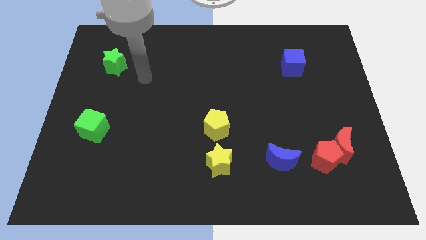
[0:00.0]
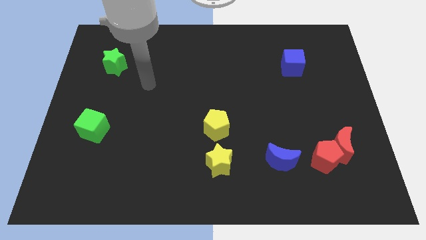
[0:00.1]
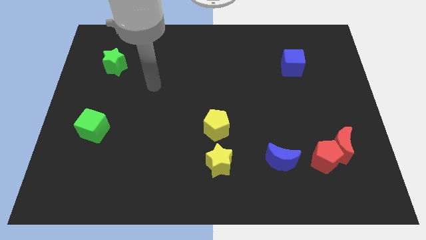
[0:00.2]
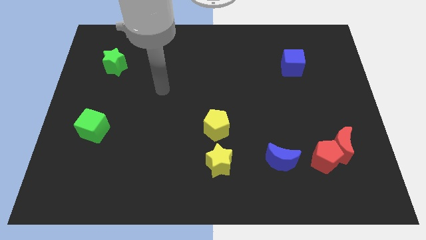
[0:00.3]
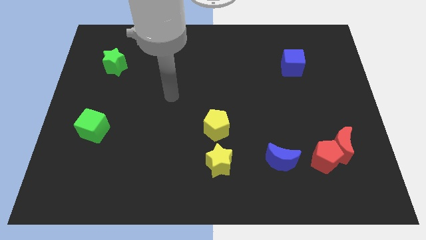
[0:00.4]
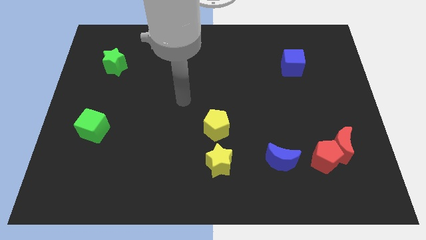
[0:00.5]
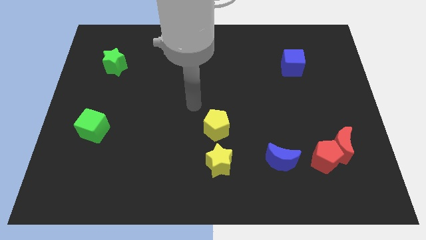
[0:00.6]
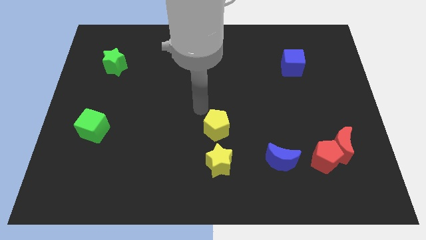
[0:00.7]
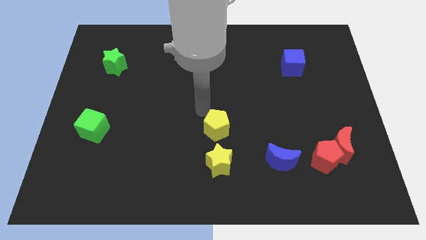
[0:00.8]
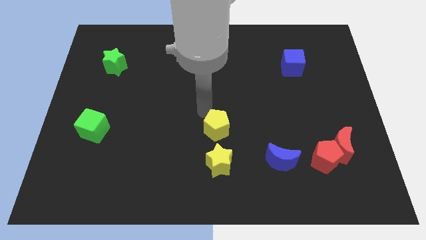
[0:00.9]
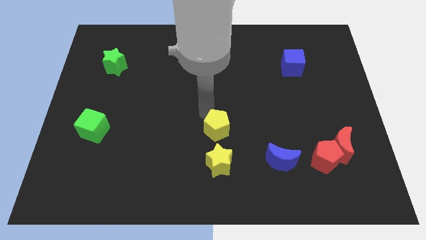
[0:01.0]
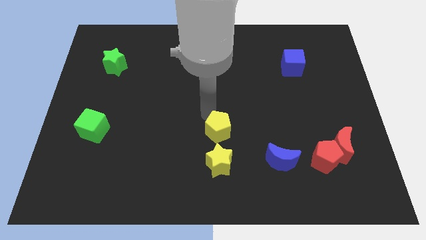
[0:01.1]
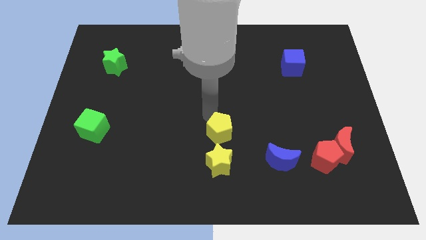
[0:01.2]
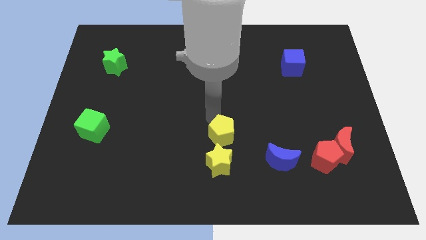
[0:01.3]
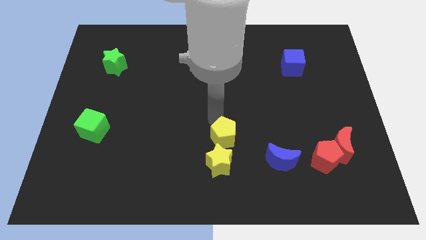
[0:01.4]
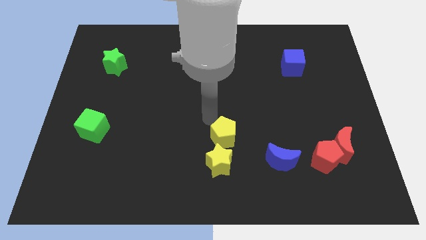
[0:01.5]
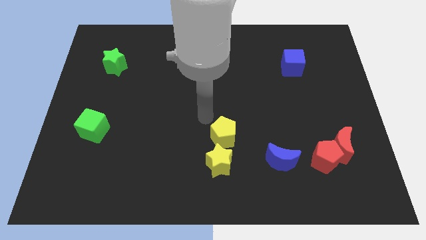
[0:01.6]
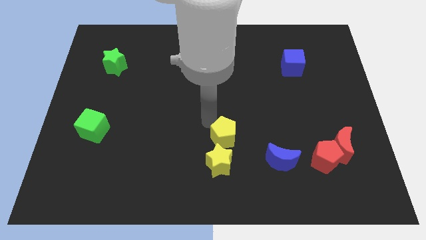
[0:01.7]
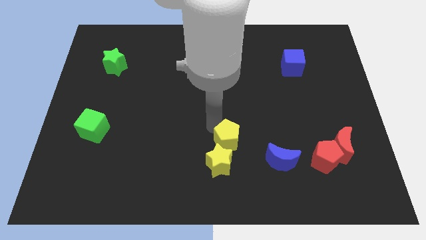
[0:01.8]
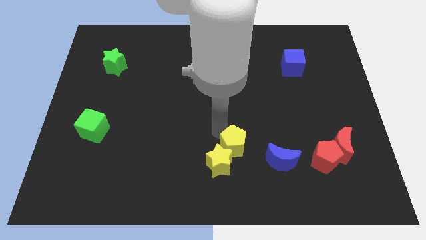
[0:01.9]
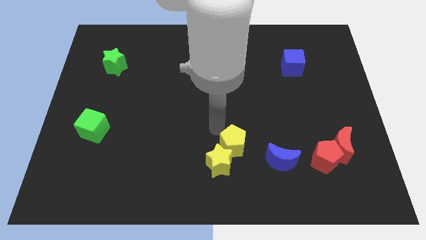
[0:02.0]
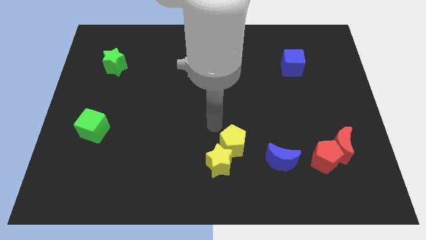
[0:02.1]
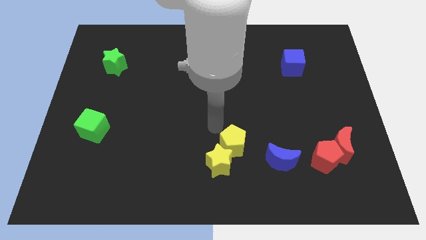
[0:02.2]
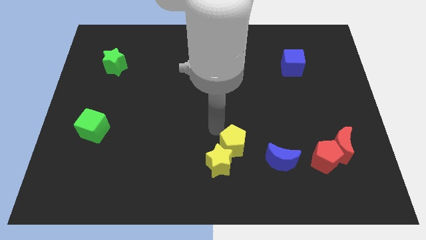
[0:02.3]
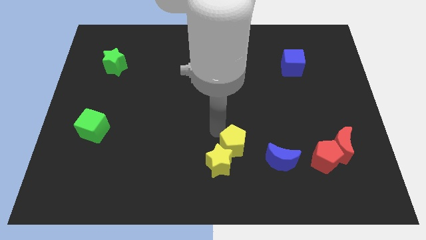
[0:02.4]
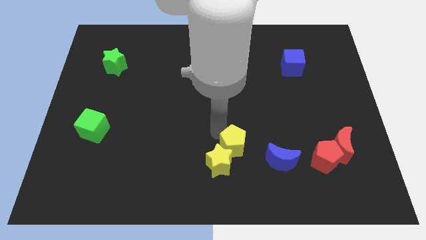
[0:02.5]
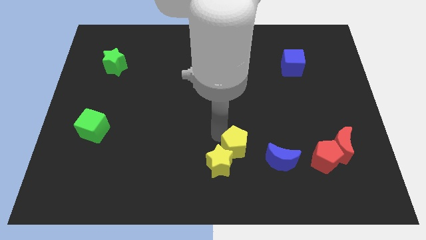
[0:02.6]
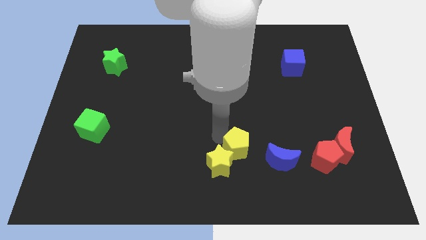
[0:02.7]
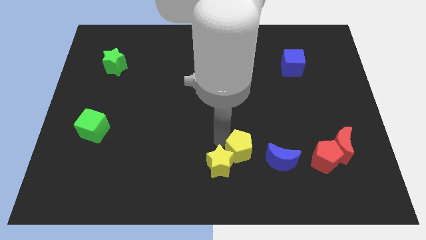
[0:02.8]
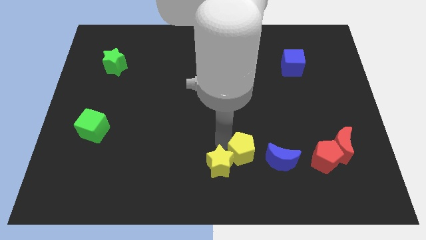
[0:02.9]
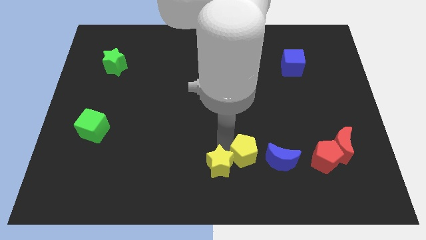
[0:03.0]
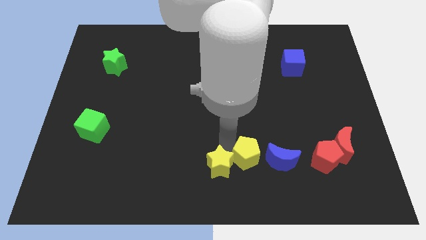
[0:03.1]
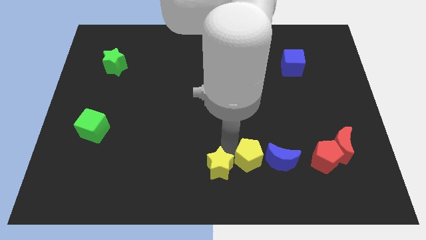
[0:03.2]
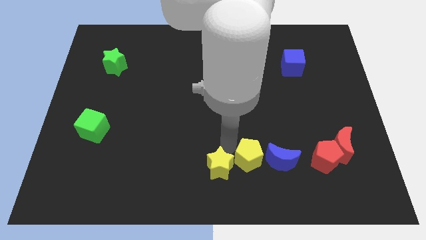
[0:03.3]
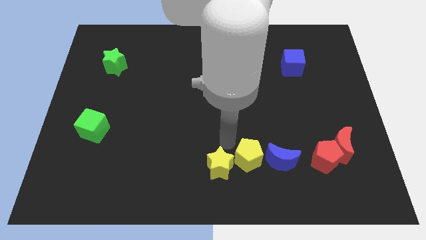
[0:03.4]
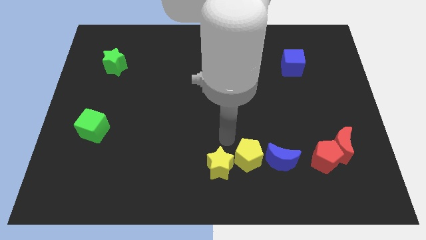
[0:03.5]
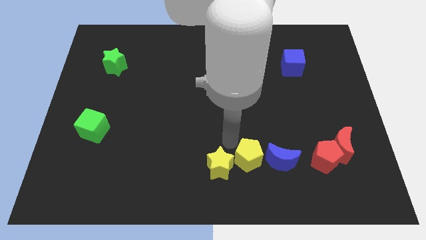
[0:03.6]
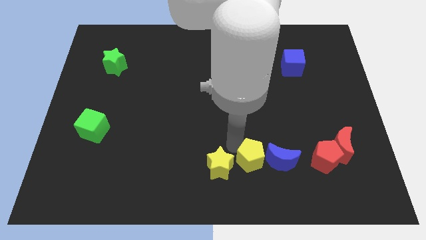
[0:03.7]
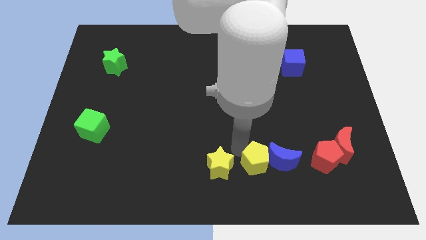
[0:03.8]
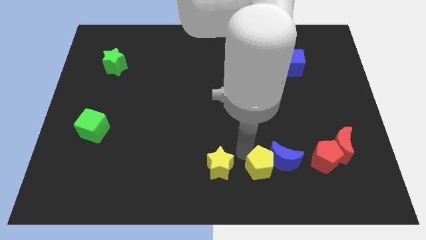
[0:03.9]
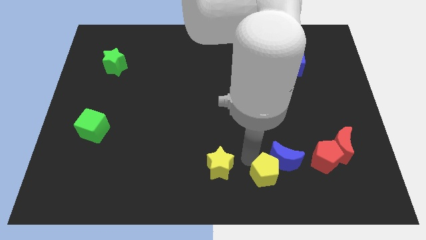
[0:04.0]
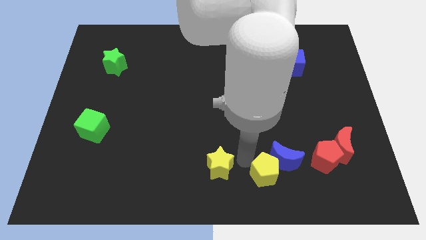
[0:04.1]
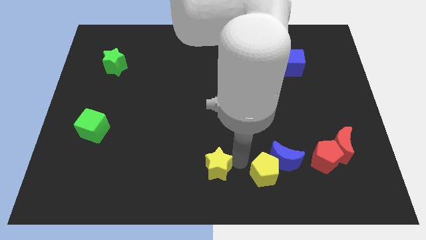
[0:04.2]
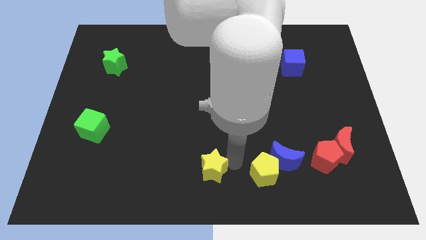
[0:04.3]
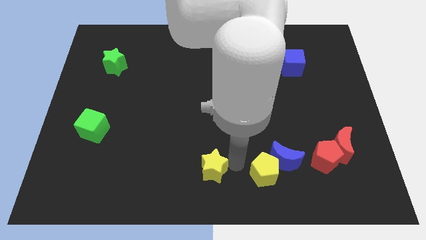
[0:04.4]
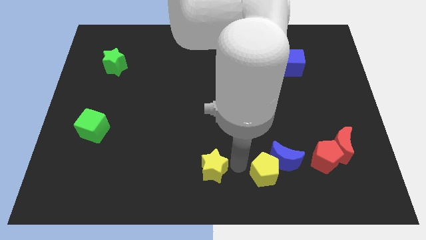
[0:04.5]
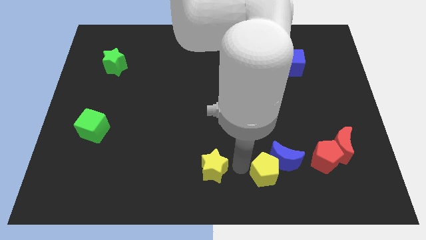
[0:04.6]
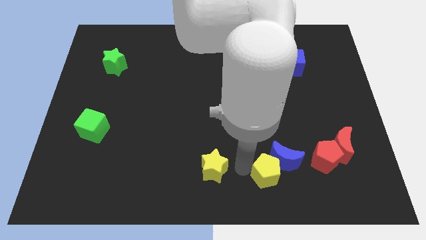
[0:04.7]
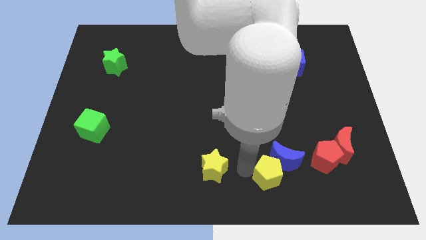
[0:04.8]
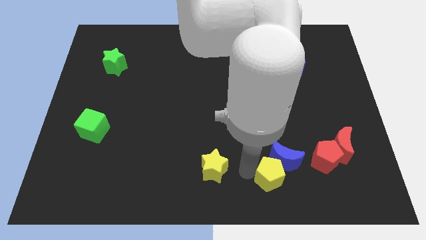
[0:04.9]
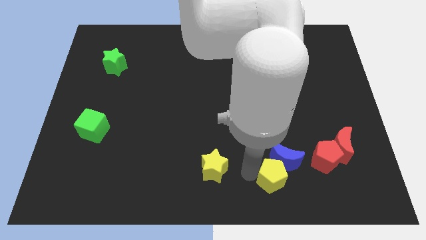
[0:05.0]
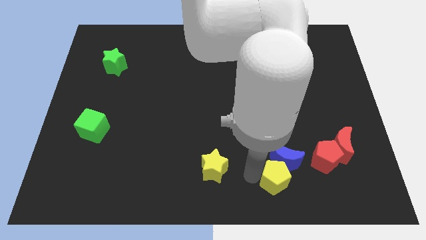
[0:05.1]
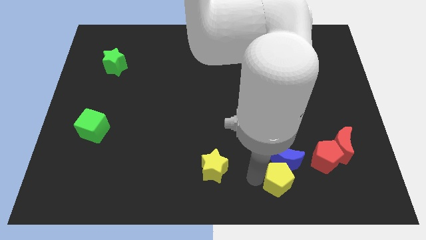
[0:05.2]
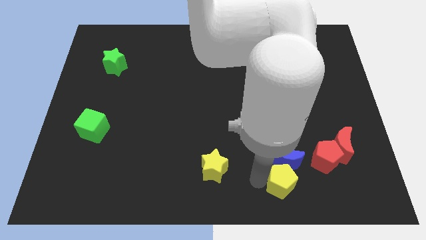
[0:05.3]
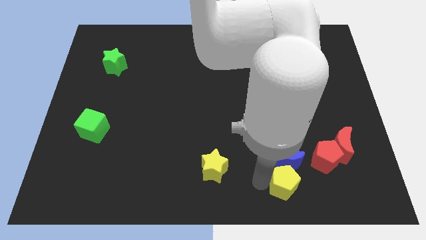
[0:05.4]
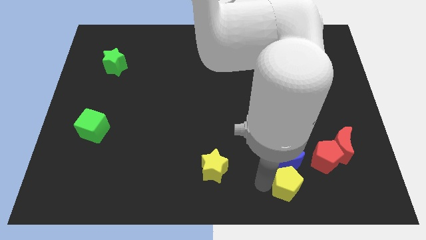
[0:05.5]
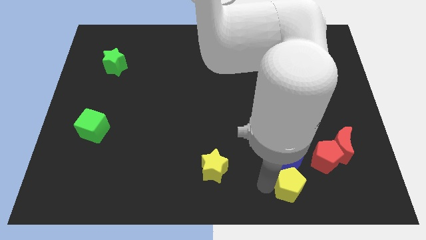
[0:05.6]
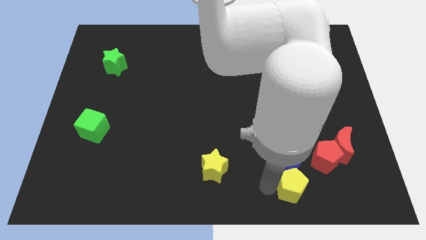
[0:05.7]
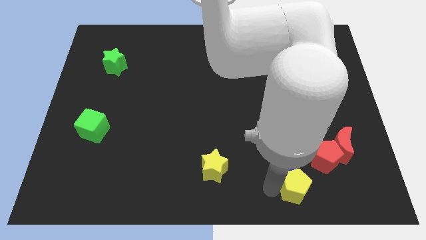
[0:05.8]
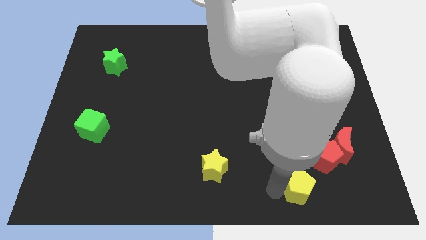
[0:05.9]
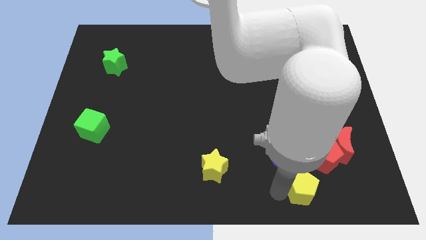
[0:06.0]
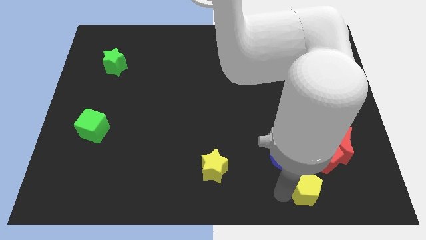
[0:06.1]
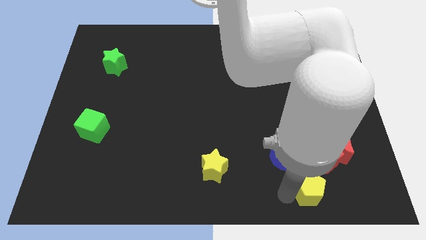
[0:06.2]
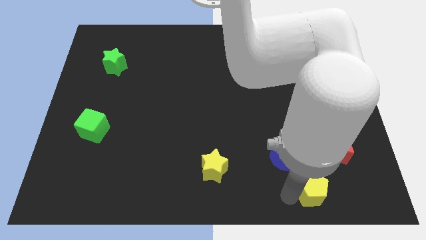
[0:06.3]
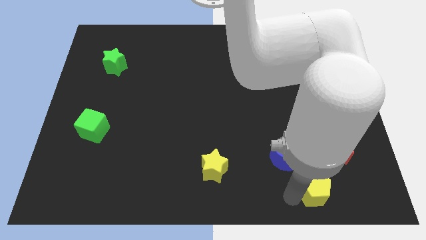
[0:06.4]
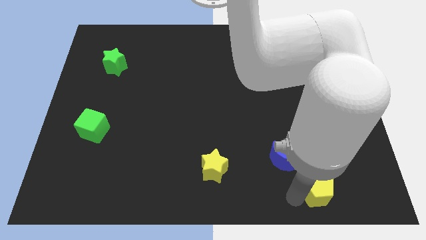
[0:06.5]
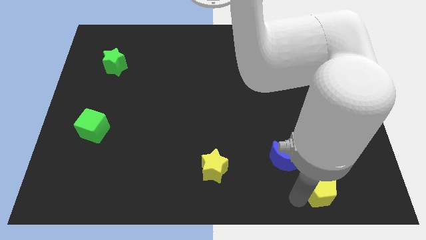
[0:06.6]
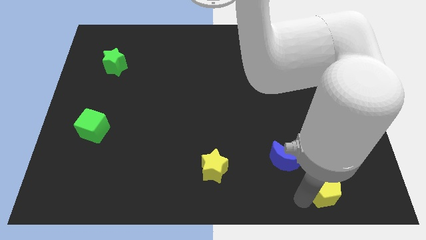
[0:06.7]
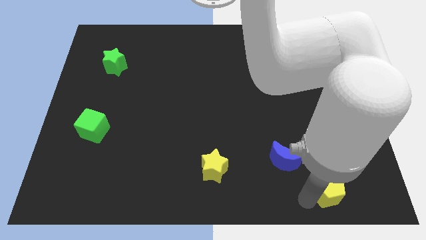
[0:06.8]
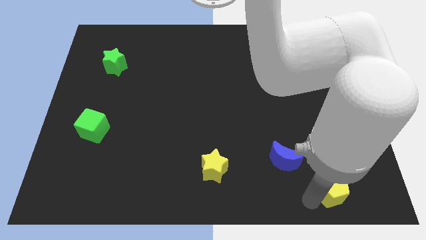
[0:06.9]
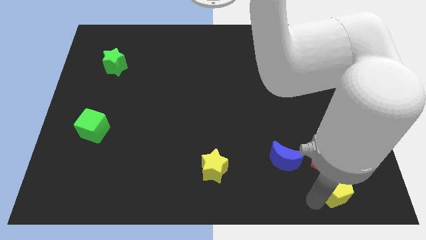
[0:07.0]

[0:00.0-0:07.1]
put the yellow pentagon diagonally down and to the right of the red pentagon

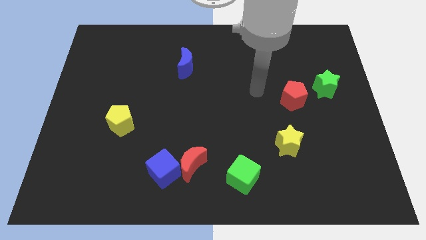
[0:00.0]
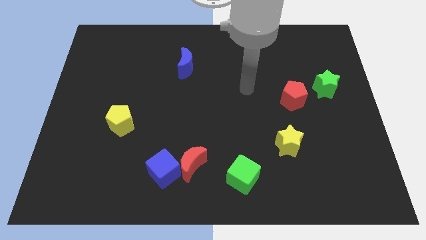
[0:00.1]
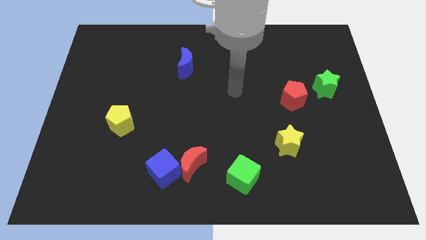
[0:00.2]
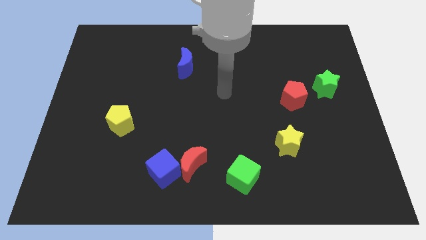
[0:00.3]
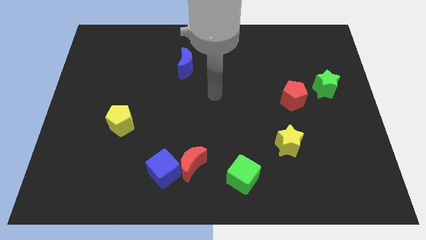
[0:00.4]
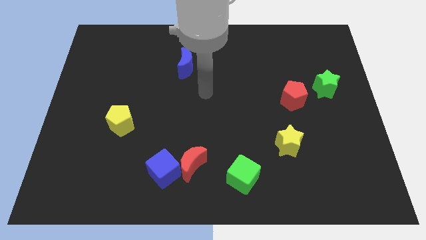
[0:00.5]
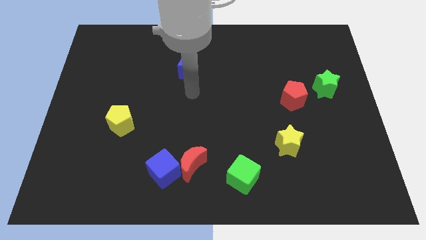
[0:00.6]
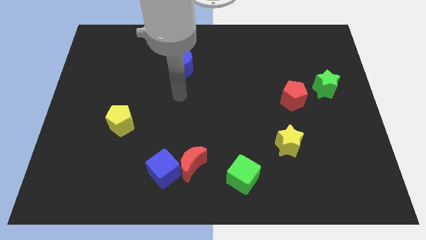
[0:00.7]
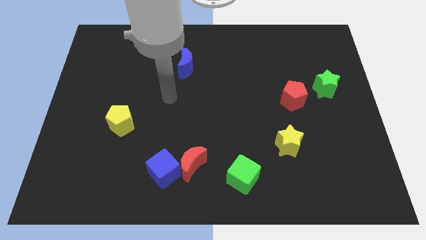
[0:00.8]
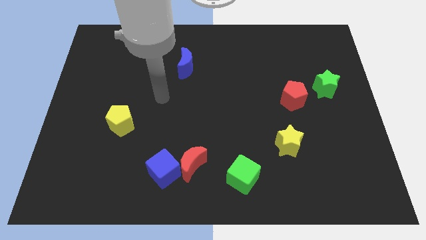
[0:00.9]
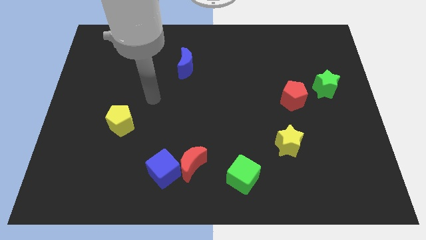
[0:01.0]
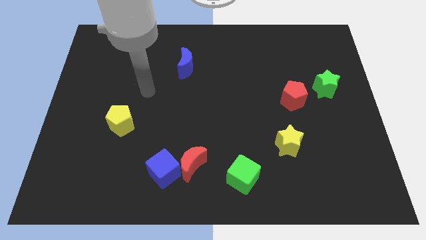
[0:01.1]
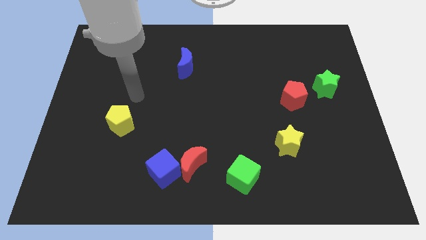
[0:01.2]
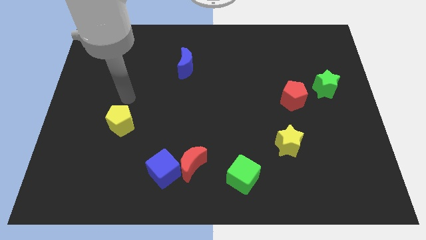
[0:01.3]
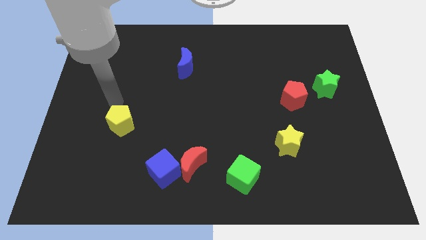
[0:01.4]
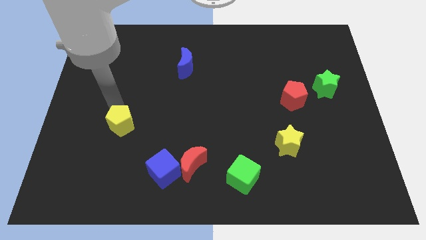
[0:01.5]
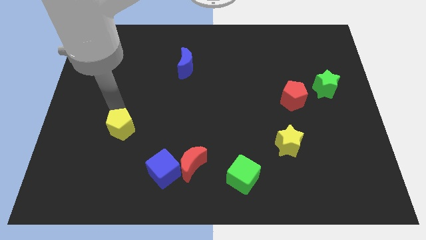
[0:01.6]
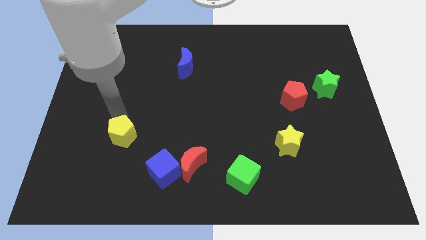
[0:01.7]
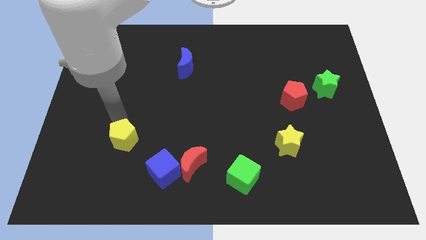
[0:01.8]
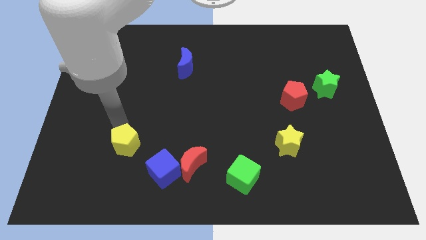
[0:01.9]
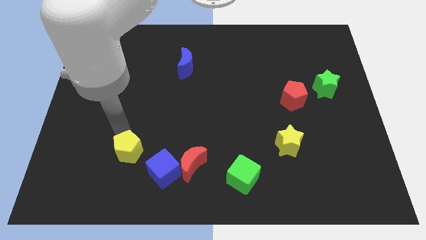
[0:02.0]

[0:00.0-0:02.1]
move the yellow pentagon just left of the red moon
